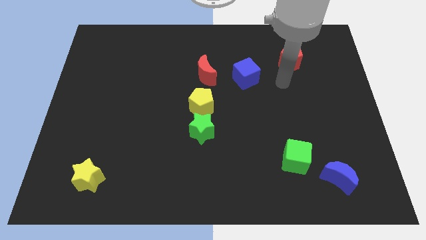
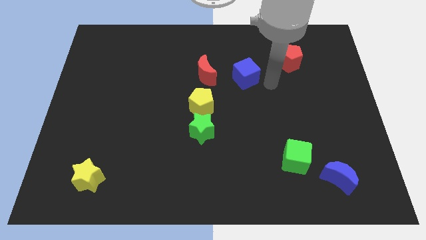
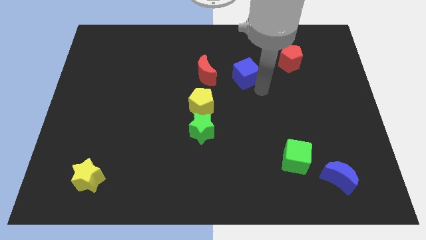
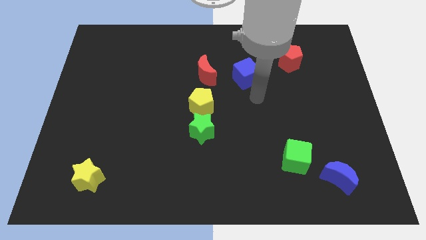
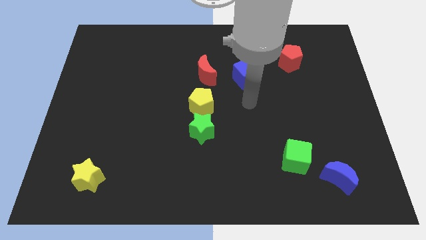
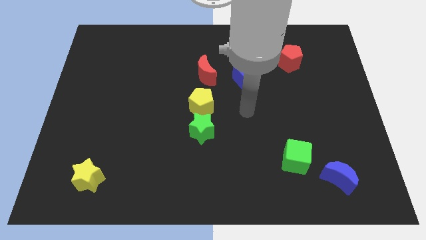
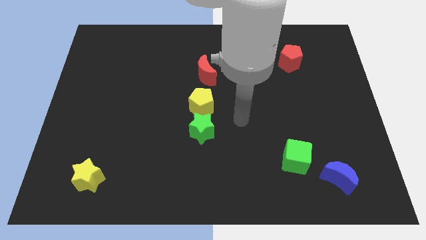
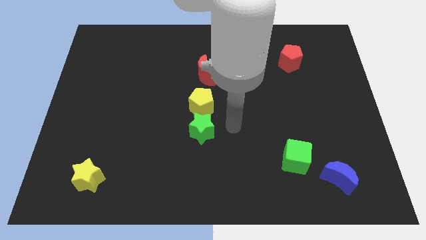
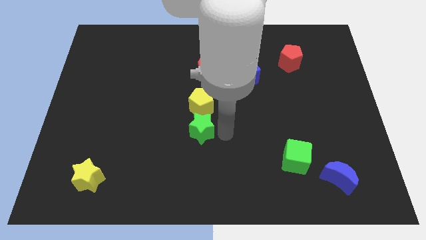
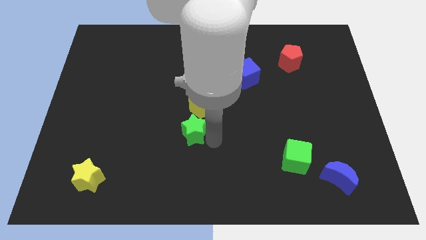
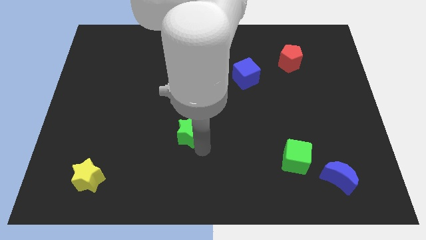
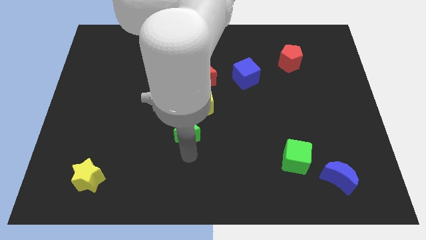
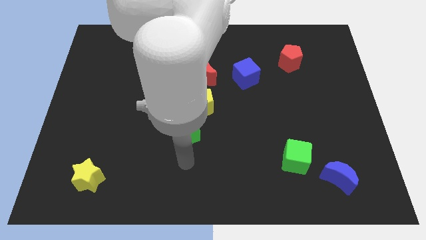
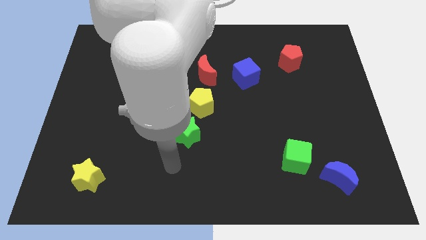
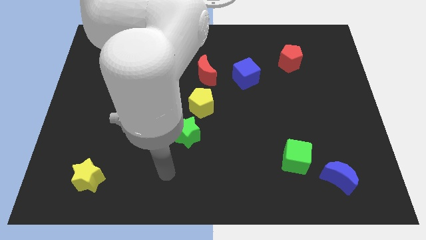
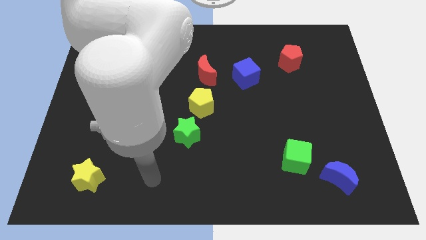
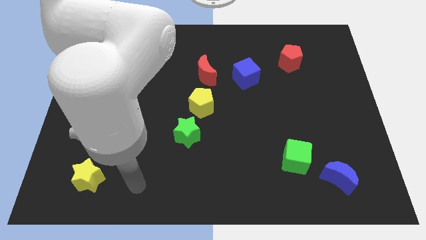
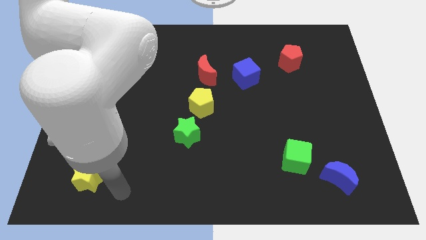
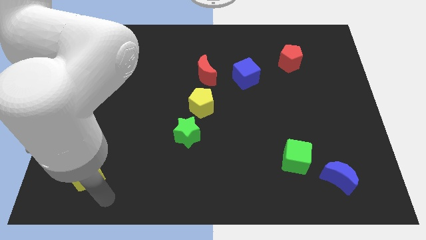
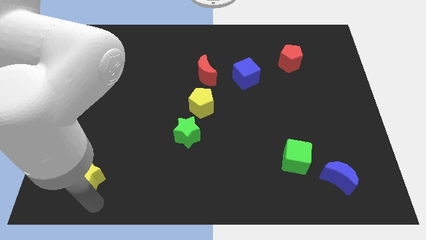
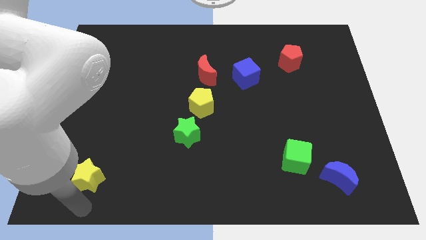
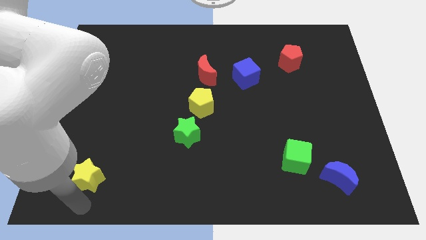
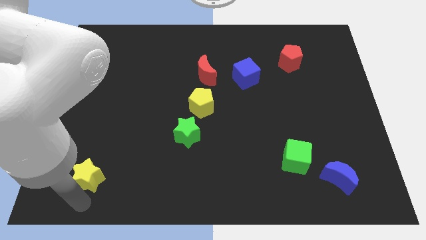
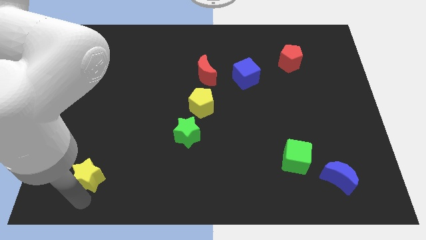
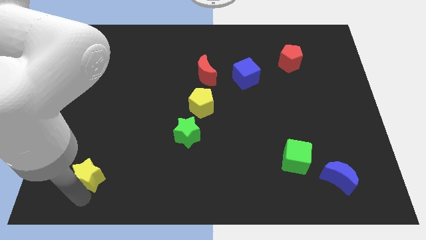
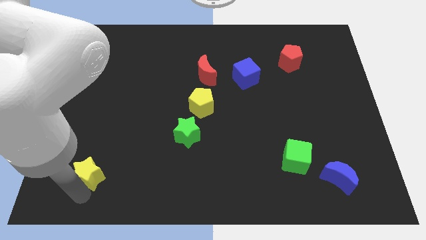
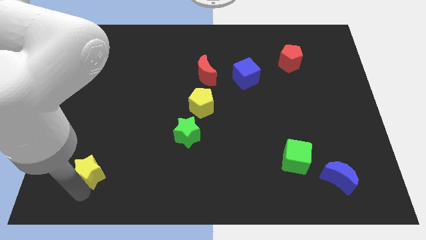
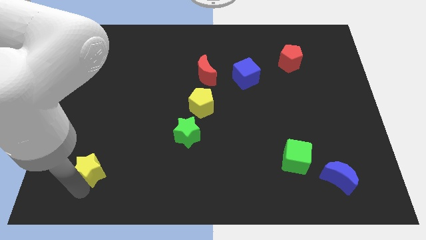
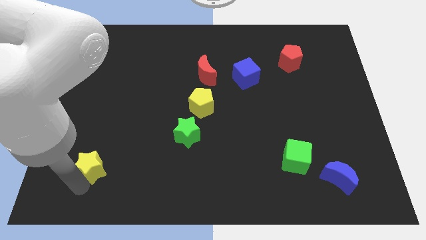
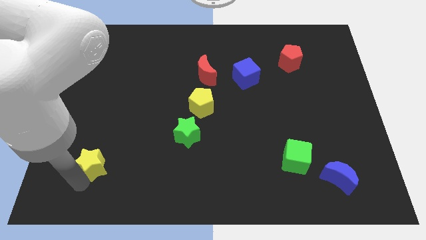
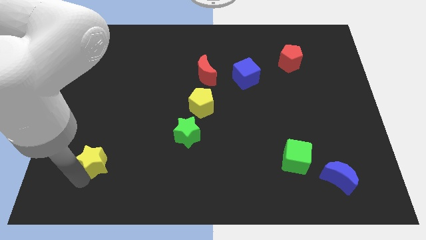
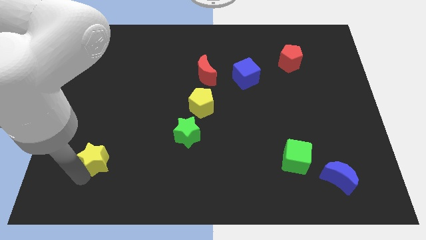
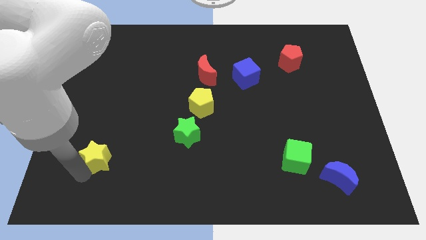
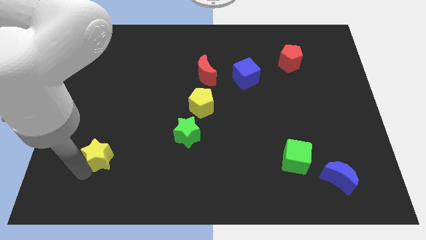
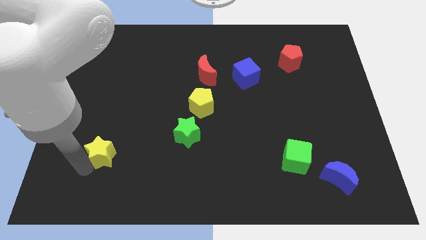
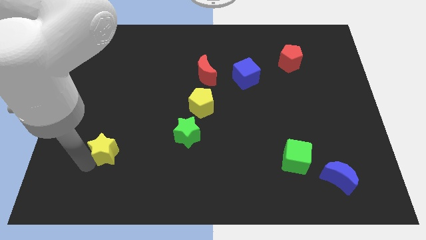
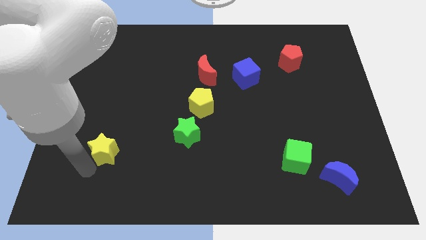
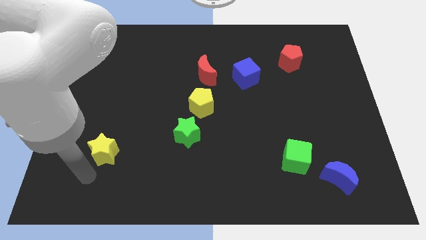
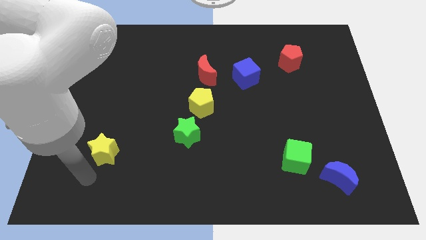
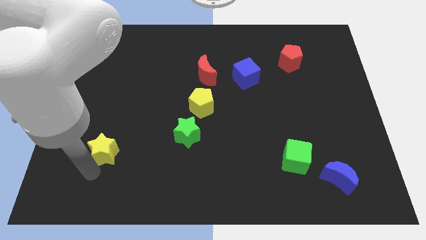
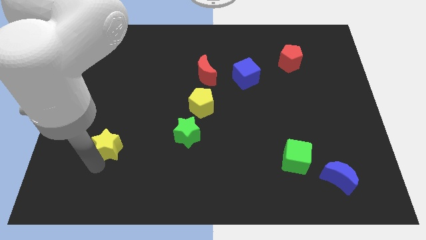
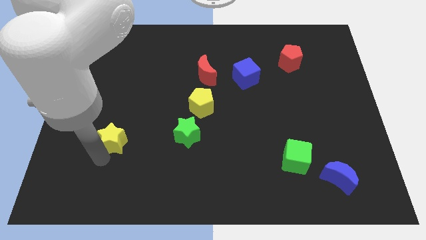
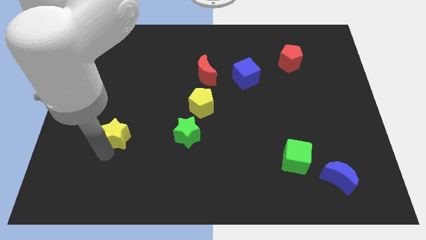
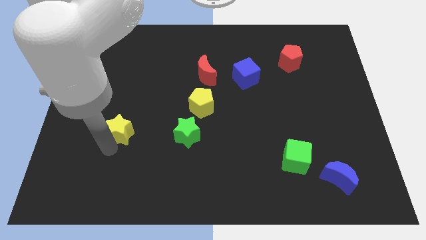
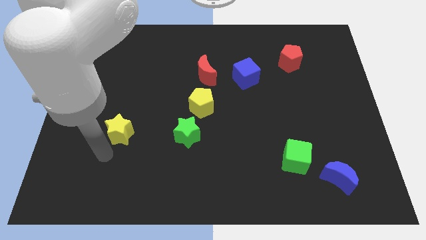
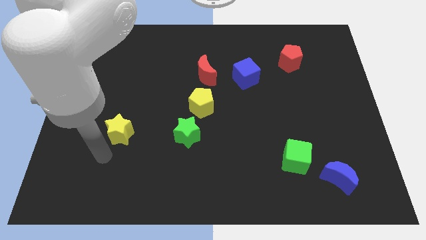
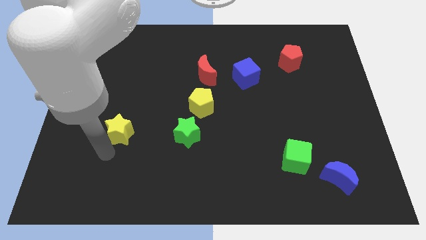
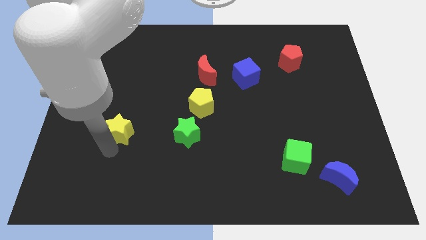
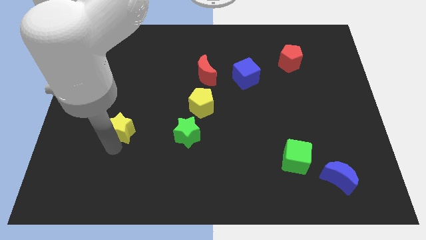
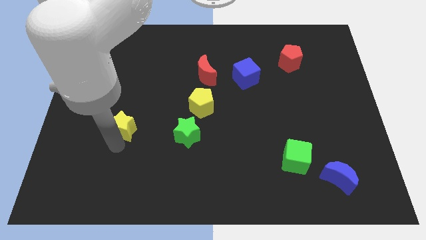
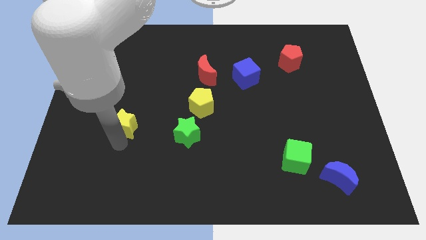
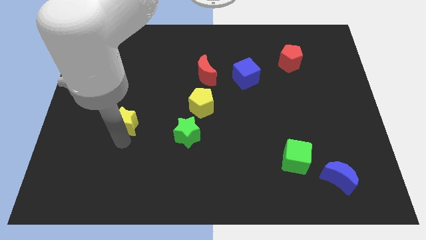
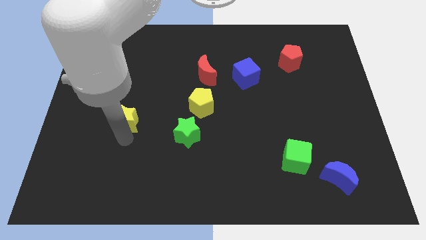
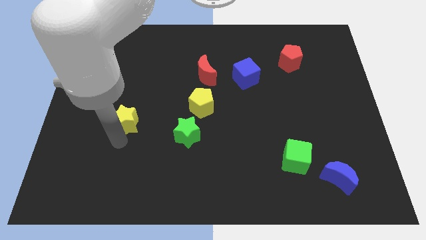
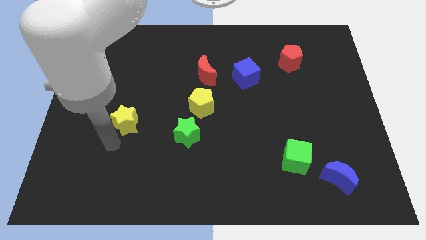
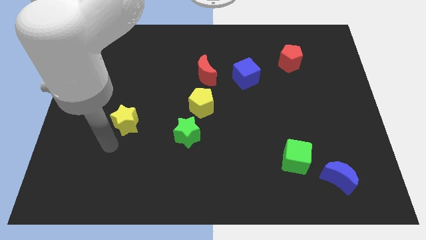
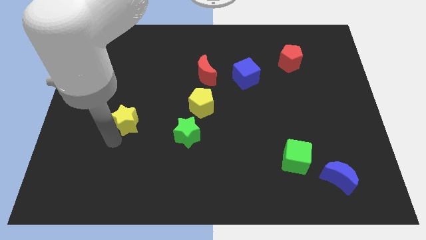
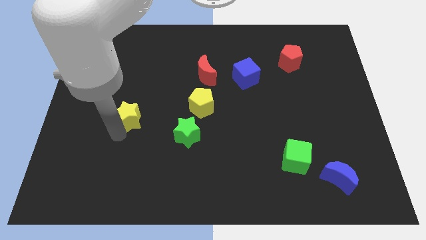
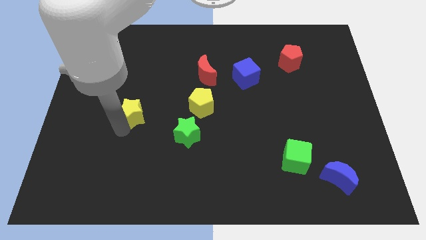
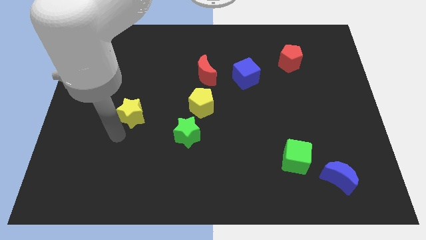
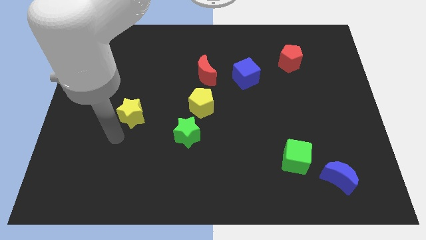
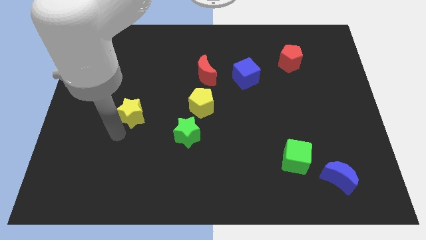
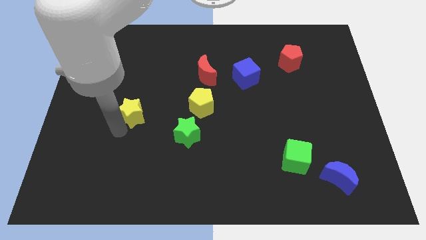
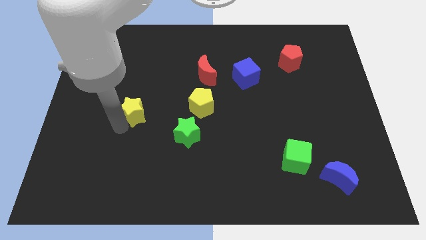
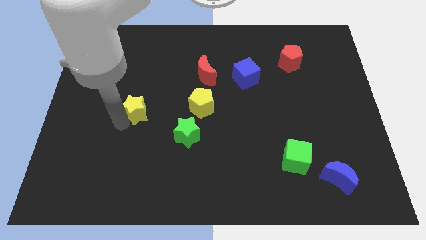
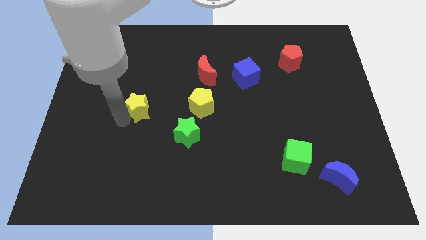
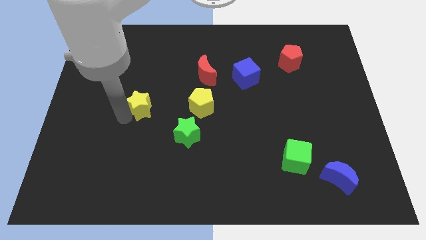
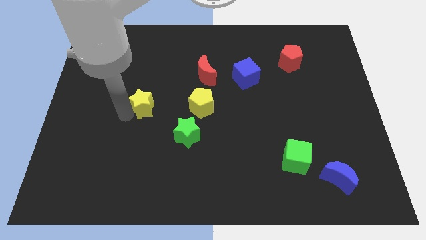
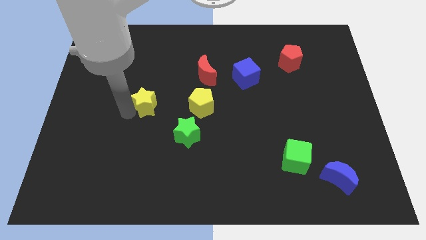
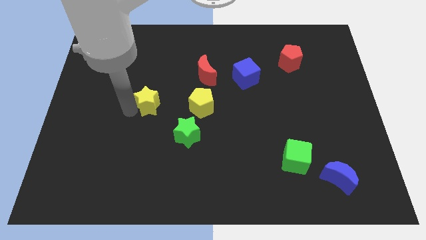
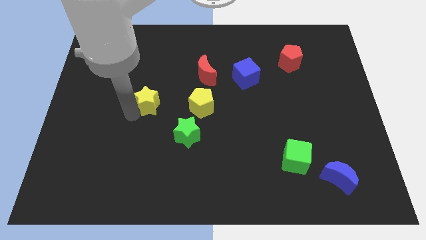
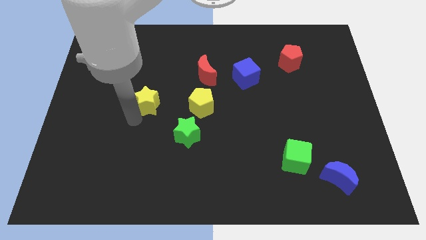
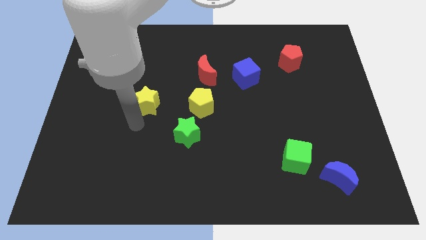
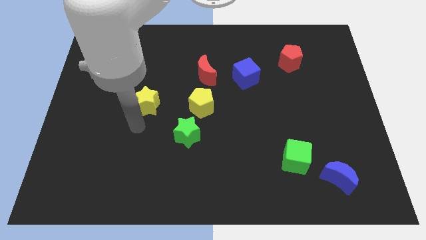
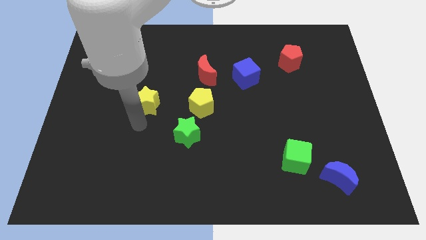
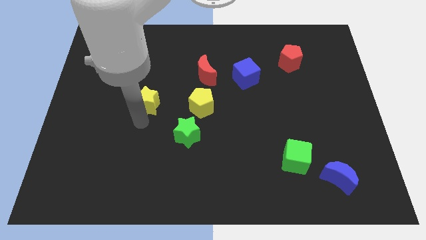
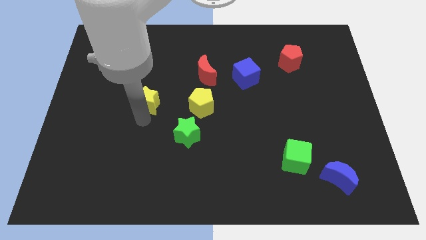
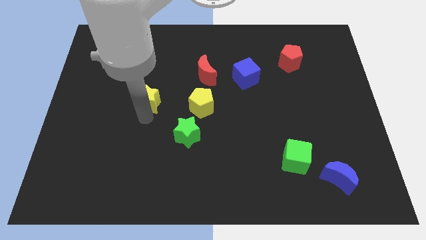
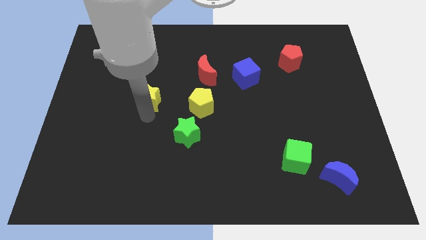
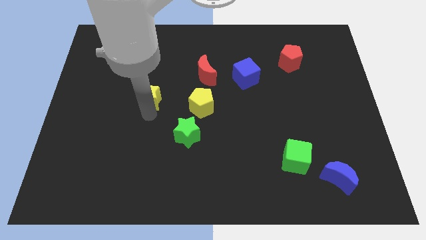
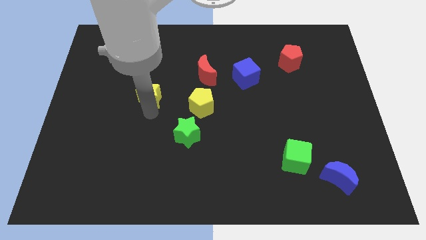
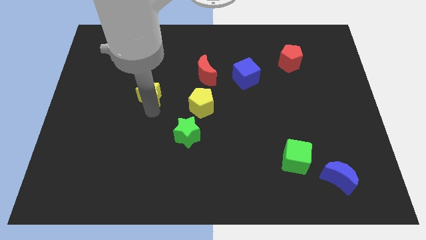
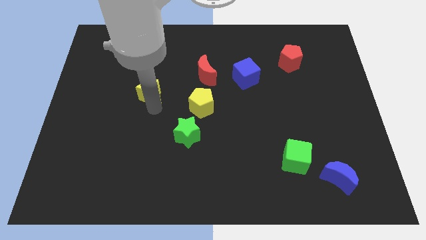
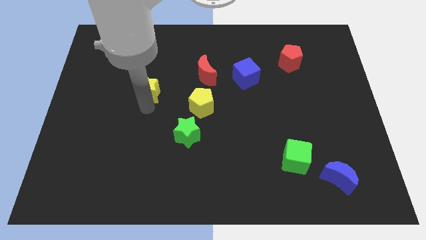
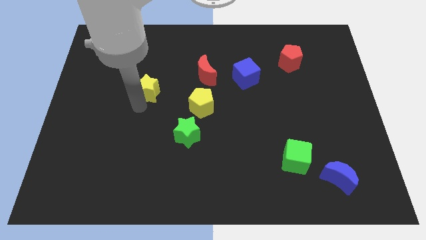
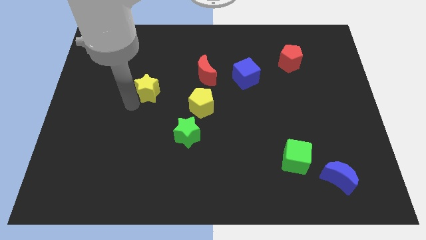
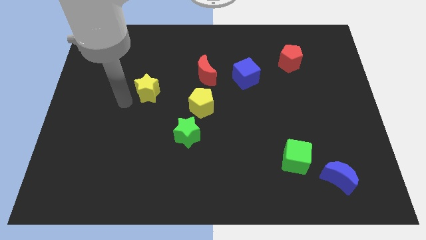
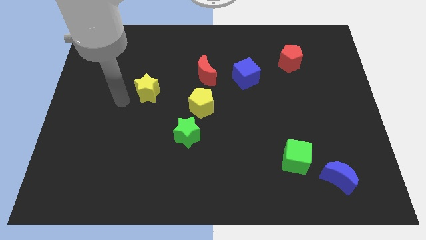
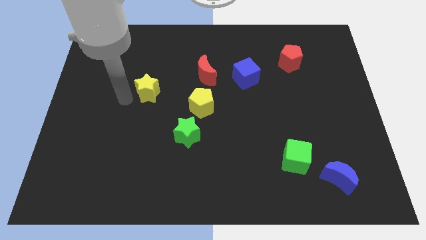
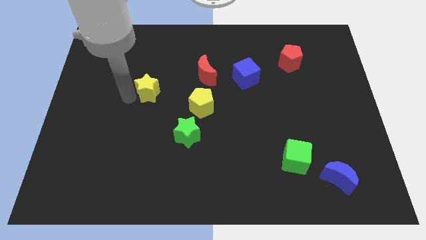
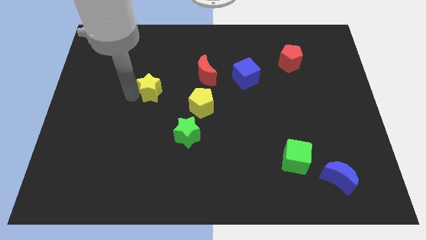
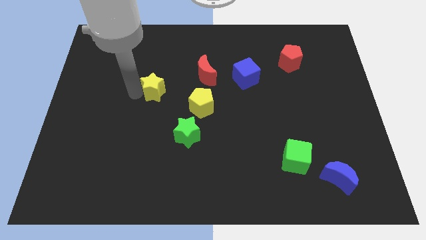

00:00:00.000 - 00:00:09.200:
move the yellow star upwards and to the right
